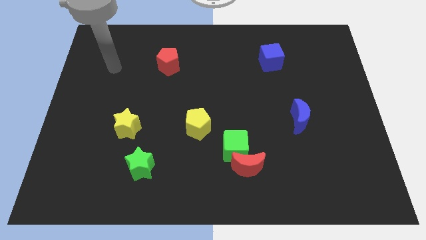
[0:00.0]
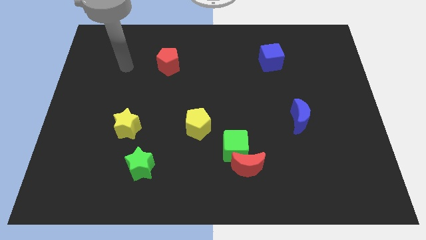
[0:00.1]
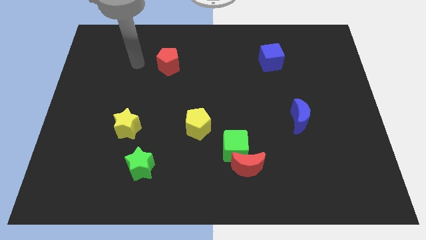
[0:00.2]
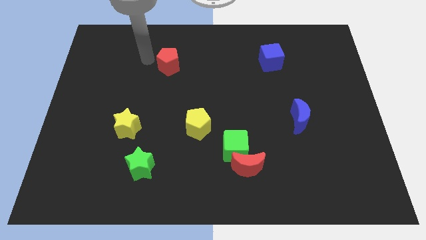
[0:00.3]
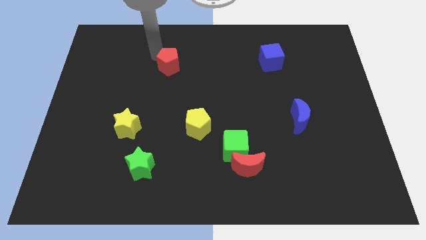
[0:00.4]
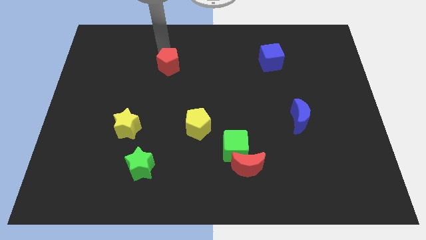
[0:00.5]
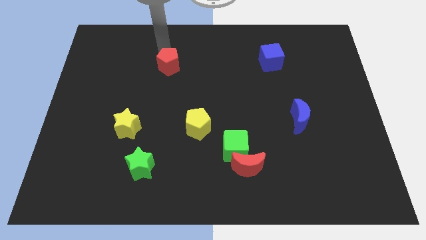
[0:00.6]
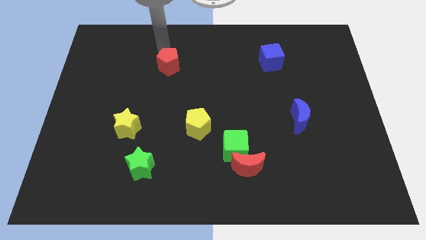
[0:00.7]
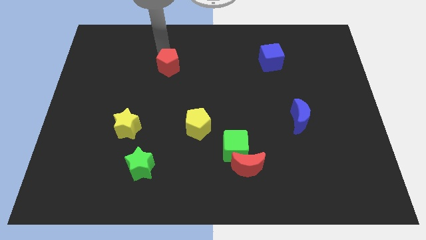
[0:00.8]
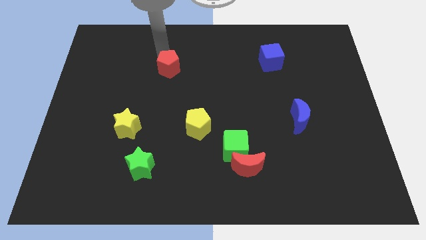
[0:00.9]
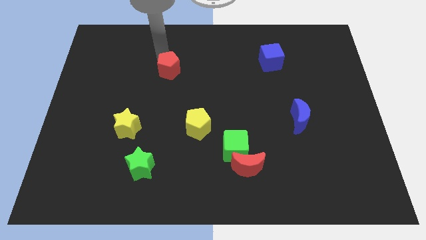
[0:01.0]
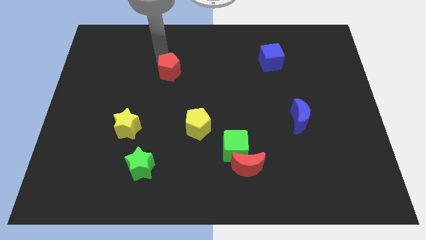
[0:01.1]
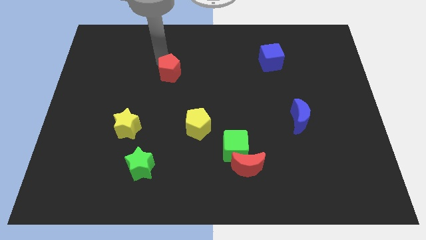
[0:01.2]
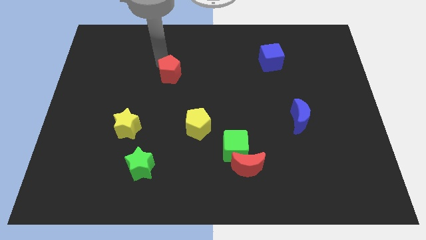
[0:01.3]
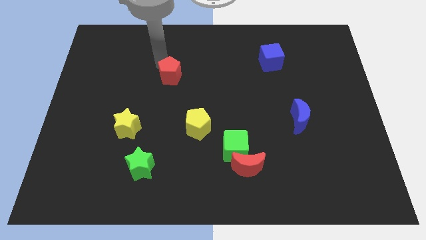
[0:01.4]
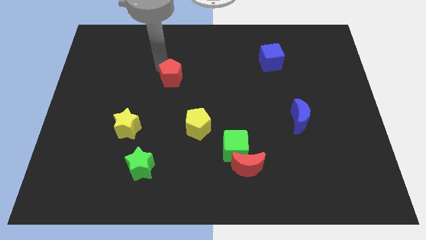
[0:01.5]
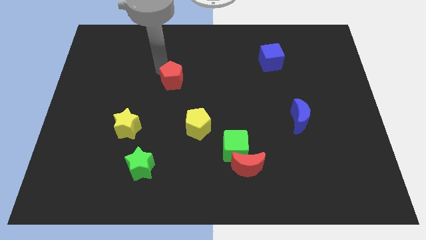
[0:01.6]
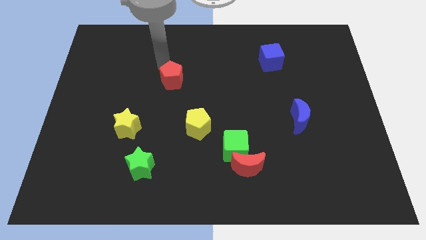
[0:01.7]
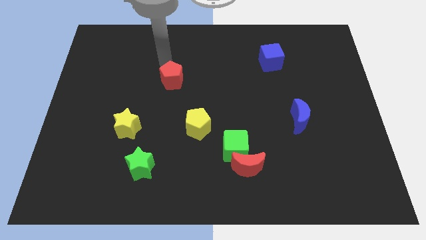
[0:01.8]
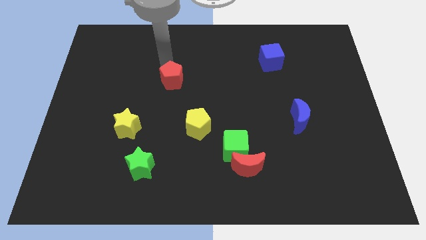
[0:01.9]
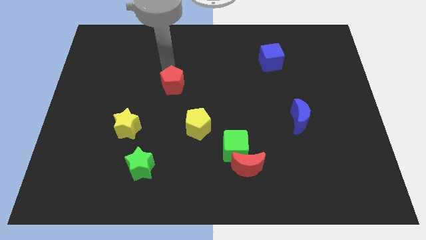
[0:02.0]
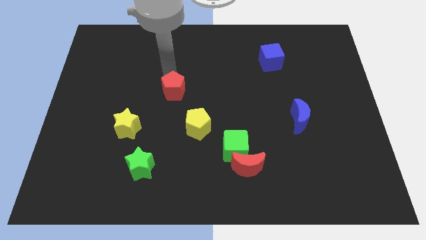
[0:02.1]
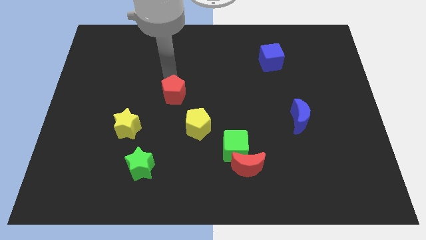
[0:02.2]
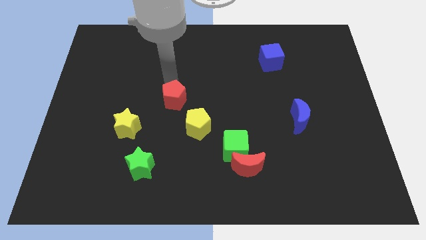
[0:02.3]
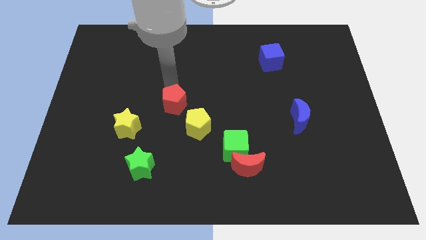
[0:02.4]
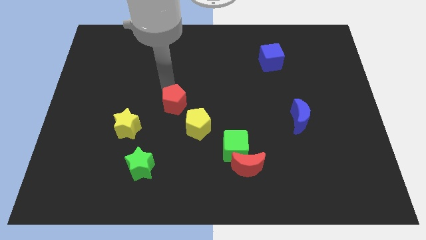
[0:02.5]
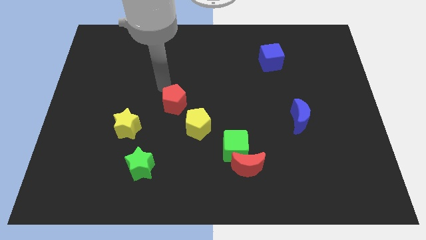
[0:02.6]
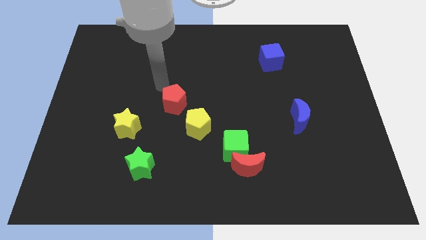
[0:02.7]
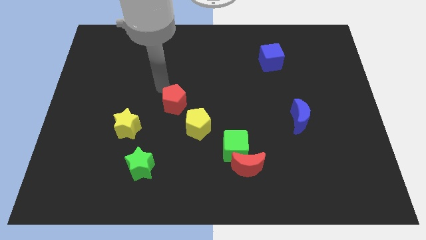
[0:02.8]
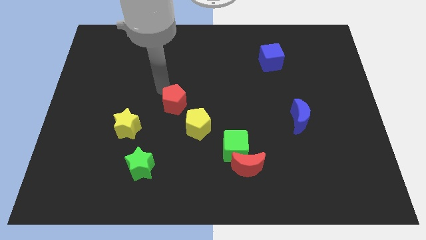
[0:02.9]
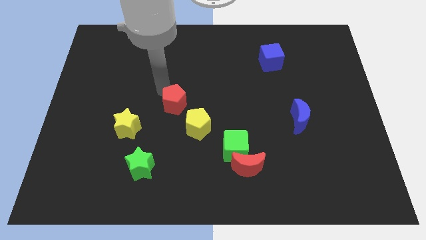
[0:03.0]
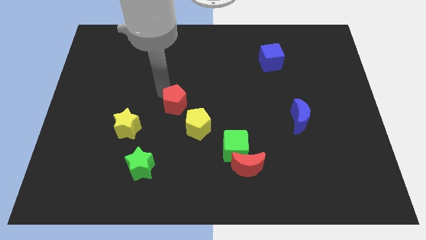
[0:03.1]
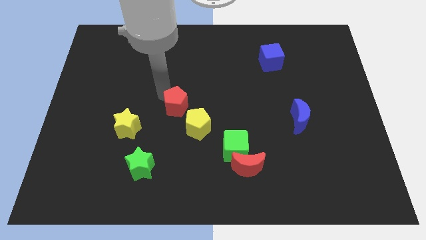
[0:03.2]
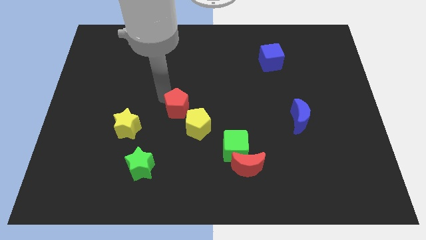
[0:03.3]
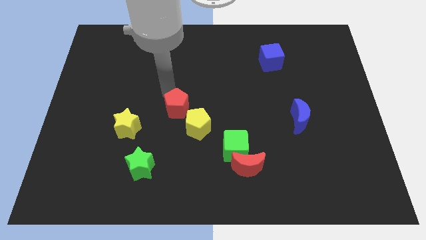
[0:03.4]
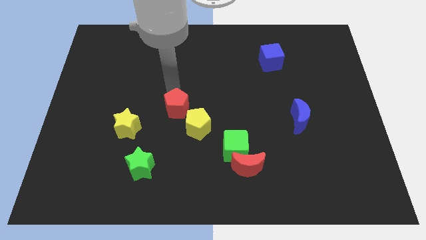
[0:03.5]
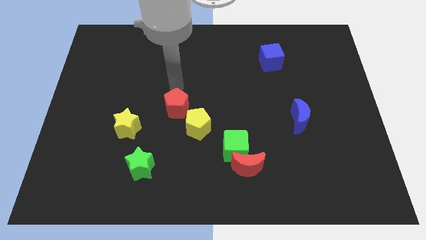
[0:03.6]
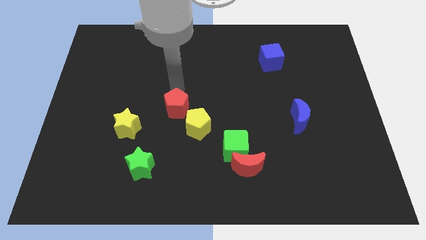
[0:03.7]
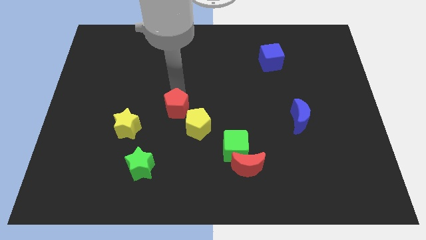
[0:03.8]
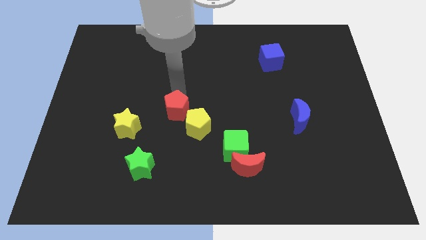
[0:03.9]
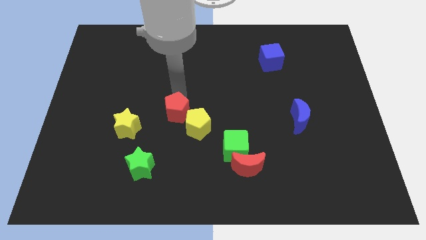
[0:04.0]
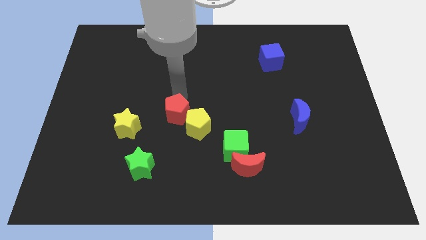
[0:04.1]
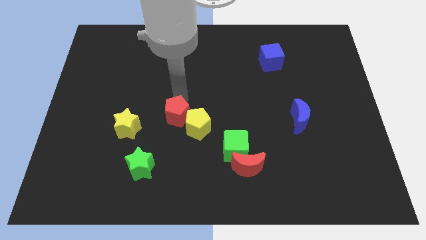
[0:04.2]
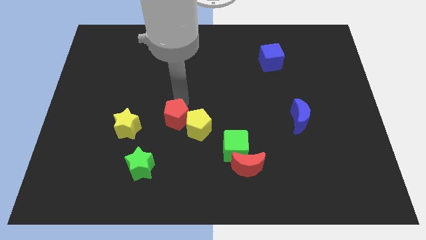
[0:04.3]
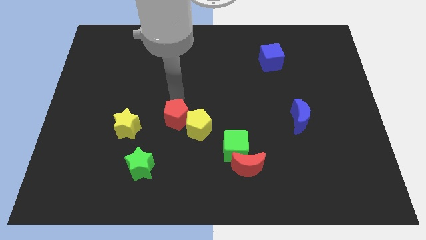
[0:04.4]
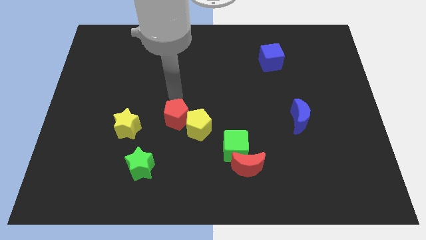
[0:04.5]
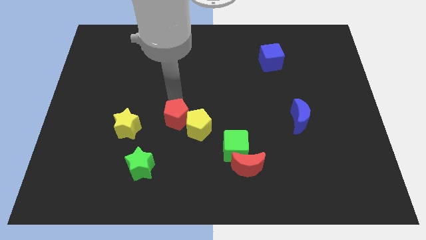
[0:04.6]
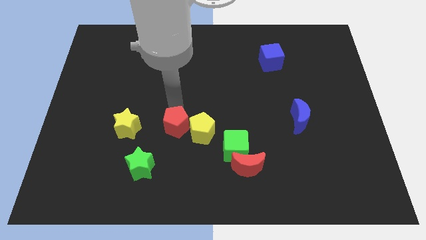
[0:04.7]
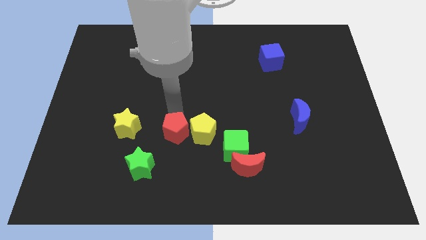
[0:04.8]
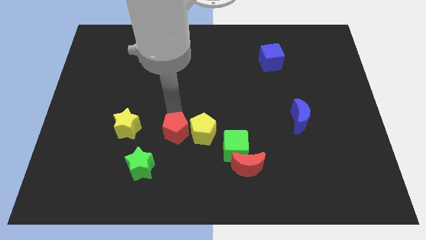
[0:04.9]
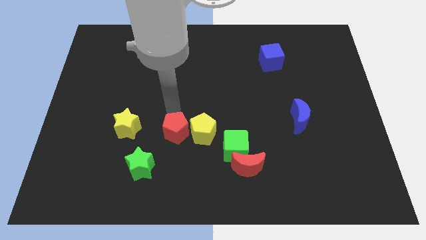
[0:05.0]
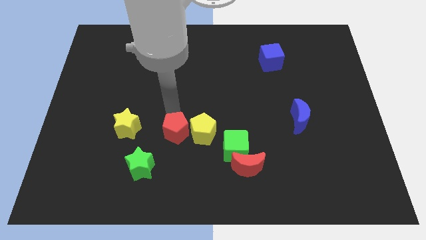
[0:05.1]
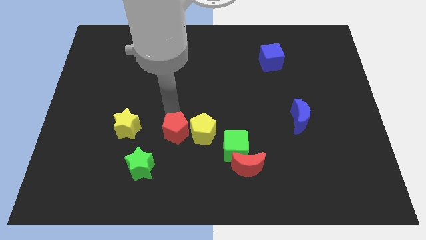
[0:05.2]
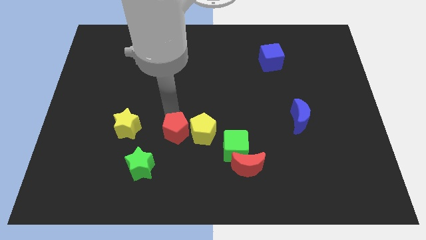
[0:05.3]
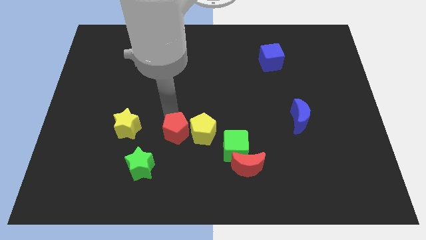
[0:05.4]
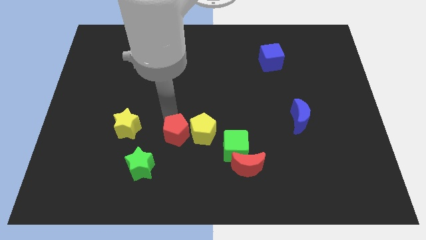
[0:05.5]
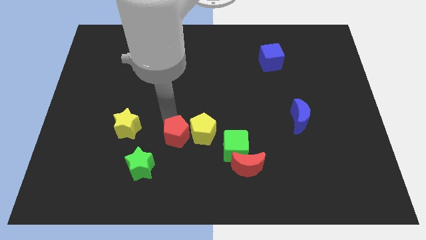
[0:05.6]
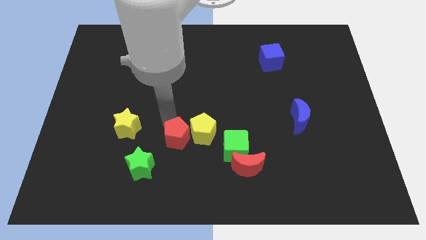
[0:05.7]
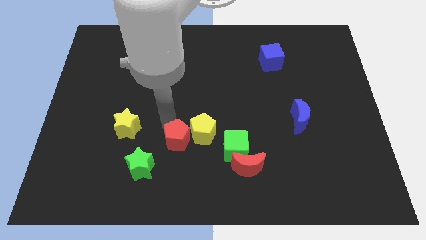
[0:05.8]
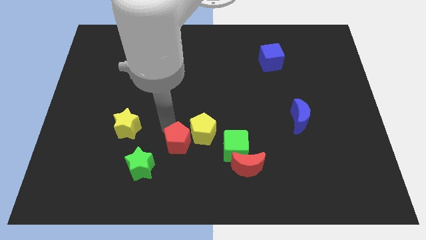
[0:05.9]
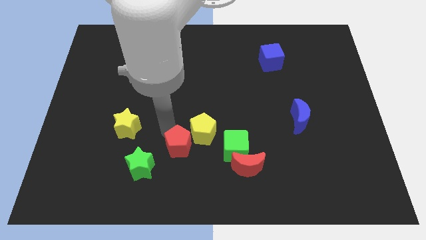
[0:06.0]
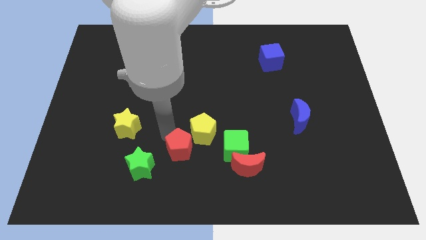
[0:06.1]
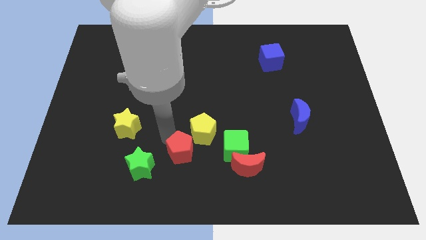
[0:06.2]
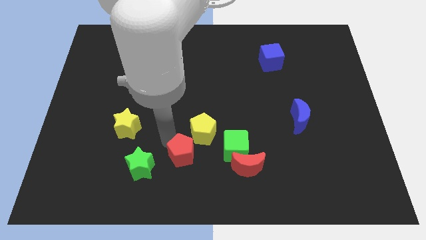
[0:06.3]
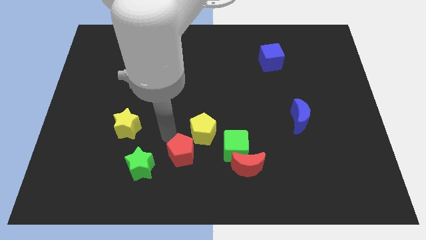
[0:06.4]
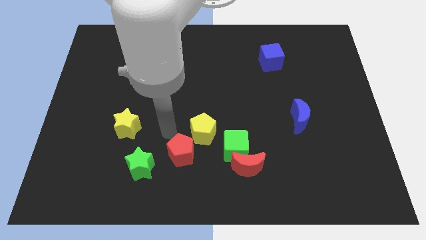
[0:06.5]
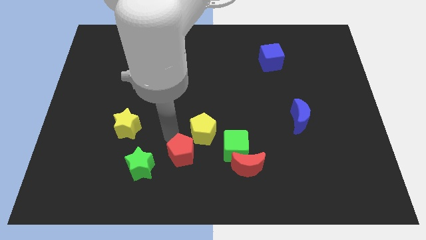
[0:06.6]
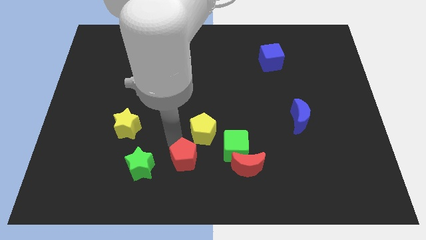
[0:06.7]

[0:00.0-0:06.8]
push the red pentagon to the bottom side

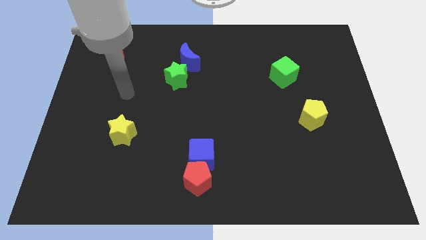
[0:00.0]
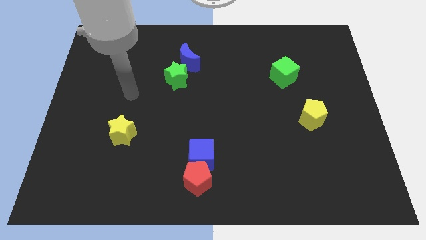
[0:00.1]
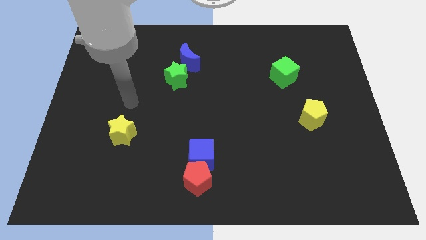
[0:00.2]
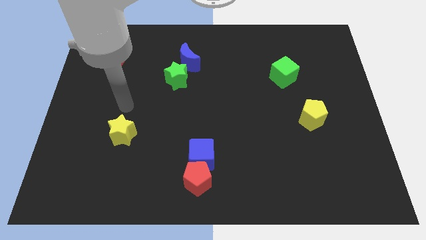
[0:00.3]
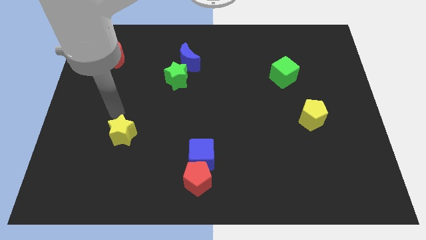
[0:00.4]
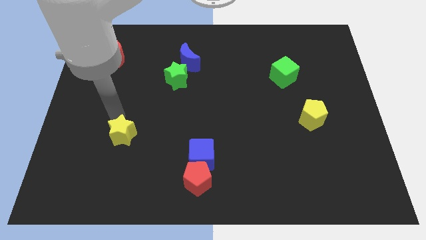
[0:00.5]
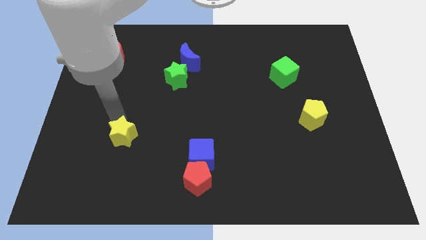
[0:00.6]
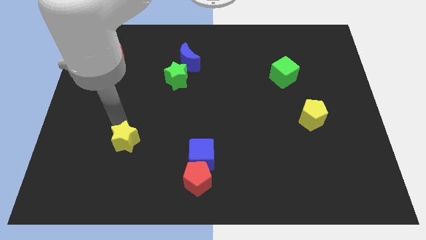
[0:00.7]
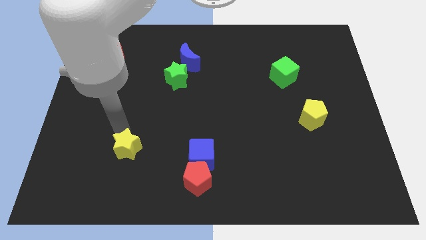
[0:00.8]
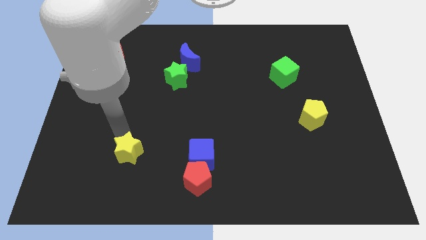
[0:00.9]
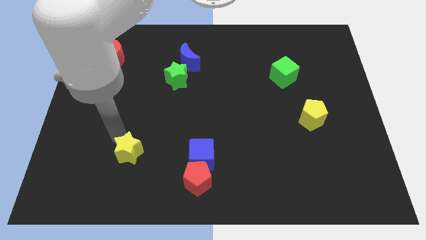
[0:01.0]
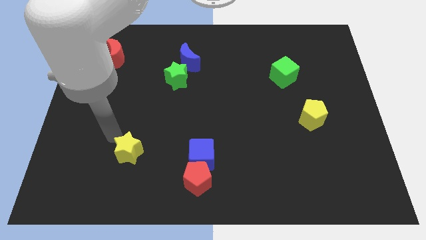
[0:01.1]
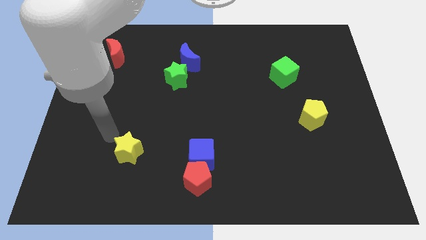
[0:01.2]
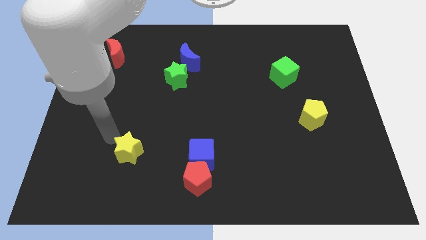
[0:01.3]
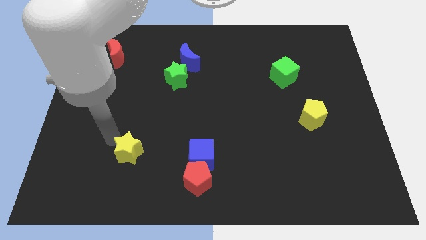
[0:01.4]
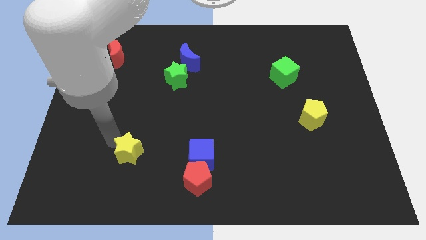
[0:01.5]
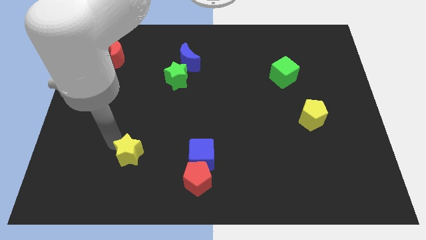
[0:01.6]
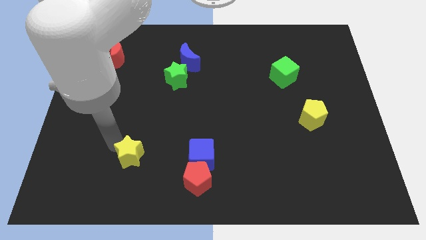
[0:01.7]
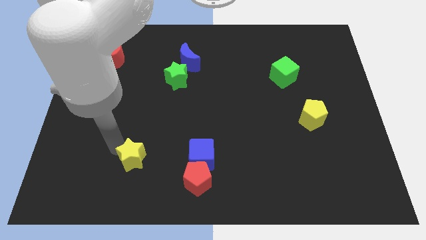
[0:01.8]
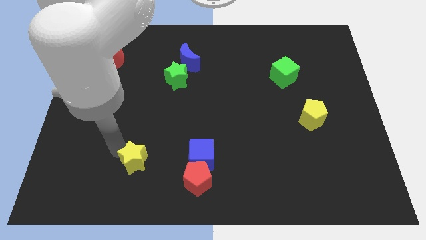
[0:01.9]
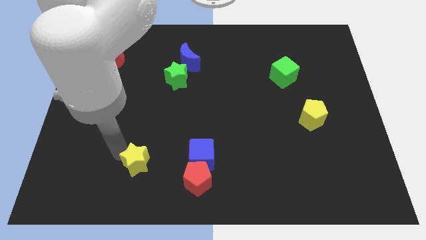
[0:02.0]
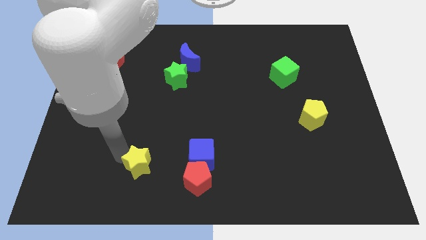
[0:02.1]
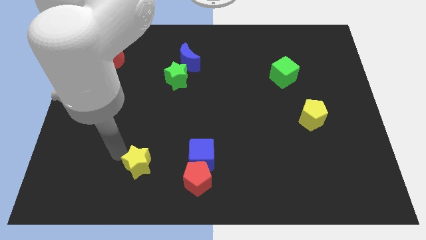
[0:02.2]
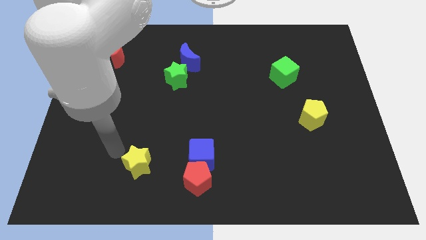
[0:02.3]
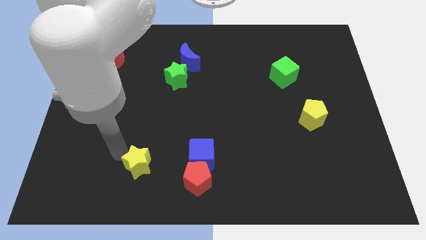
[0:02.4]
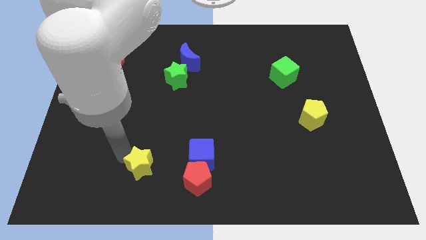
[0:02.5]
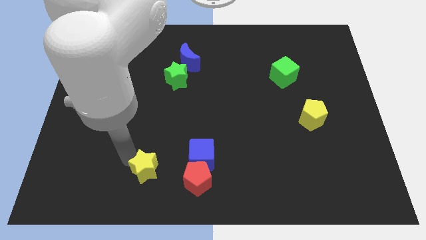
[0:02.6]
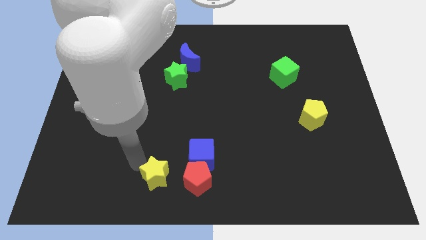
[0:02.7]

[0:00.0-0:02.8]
slide the yellow star to the bottom side
